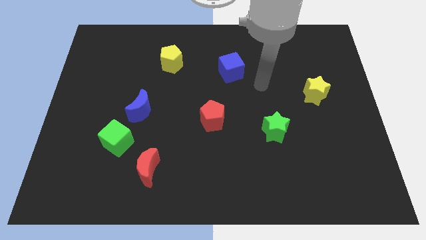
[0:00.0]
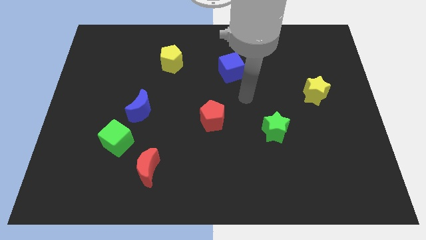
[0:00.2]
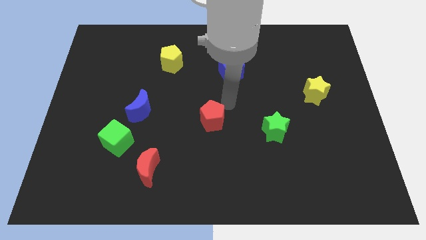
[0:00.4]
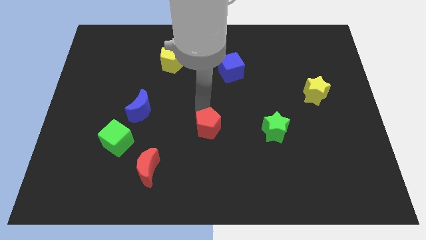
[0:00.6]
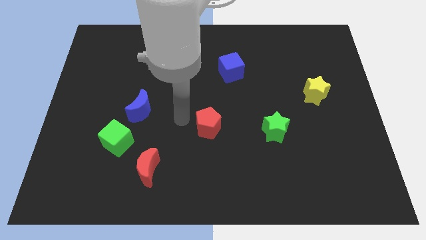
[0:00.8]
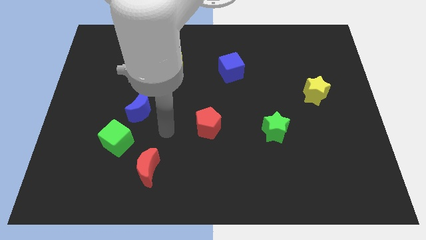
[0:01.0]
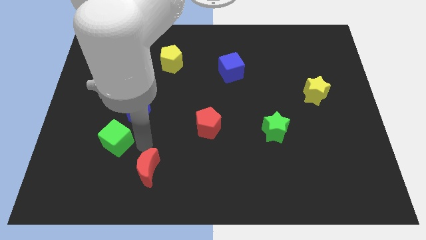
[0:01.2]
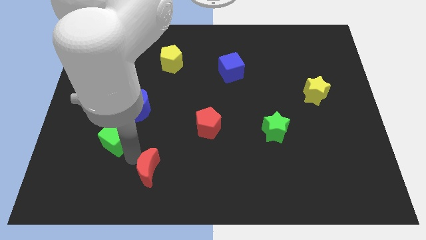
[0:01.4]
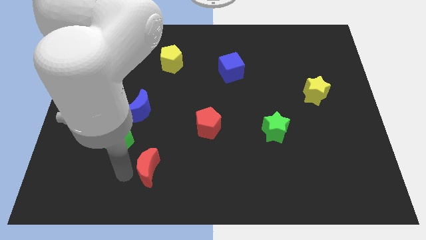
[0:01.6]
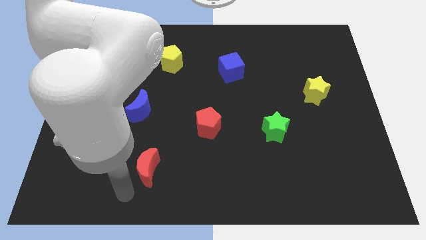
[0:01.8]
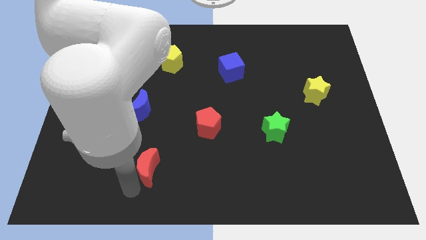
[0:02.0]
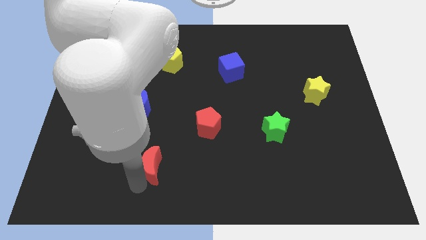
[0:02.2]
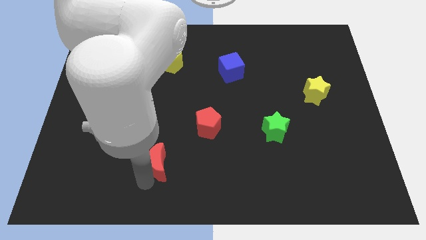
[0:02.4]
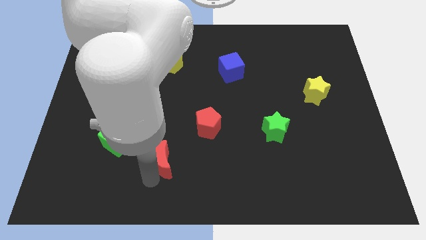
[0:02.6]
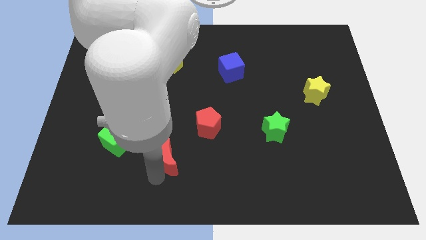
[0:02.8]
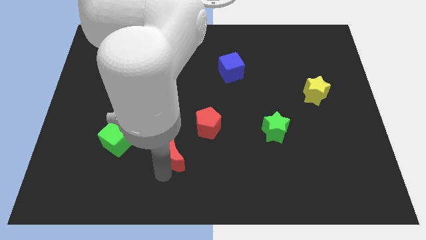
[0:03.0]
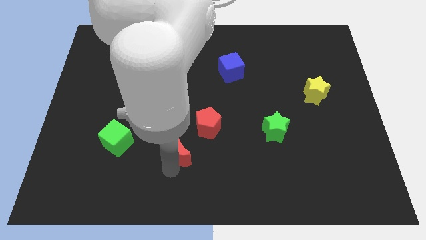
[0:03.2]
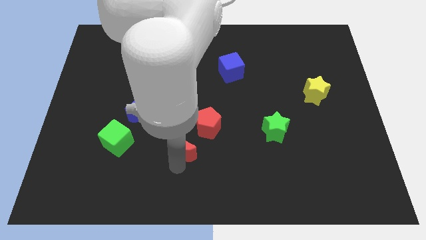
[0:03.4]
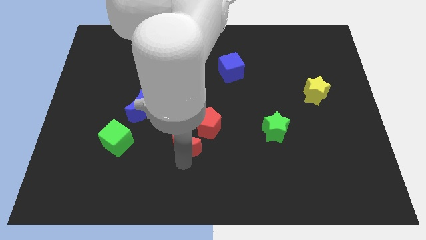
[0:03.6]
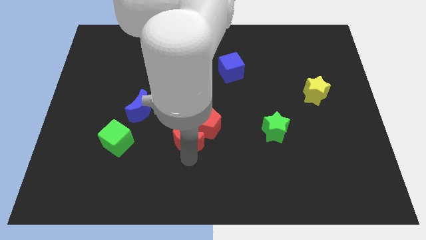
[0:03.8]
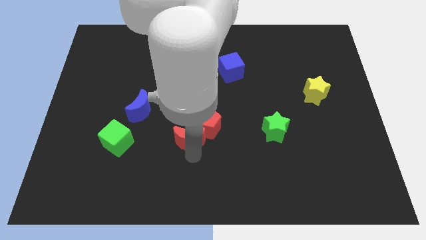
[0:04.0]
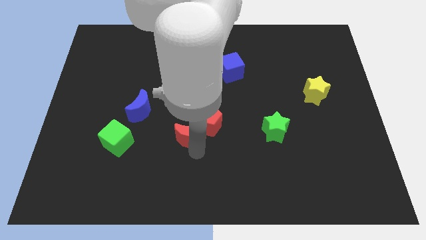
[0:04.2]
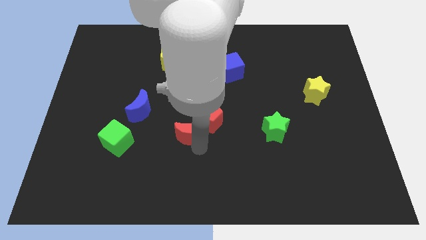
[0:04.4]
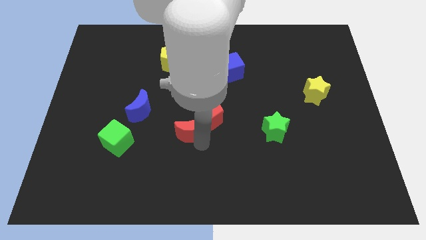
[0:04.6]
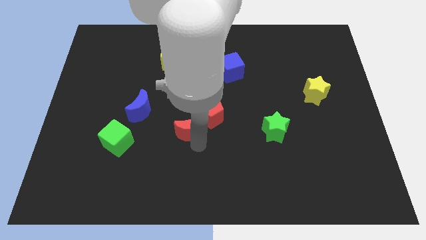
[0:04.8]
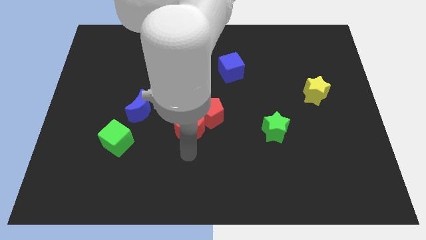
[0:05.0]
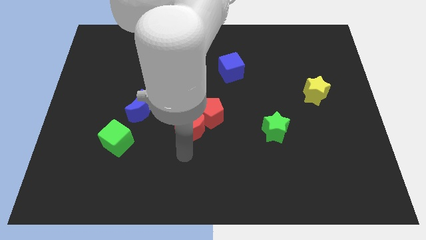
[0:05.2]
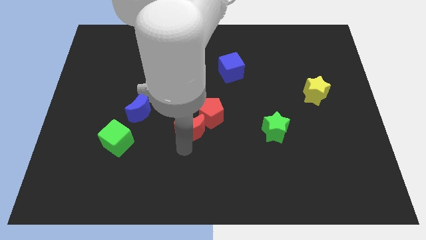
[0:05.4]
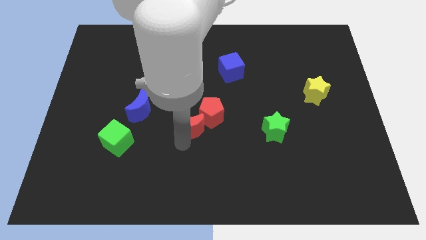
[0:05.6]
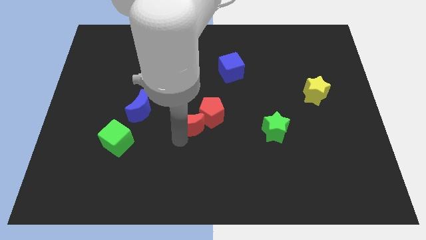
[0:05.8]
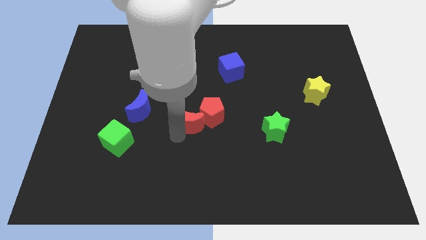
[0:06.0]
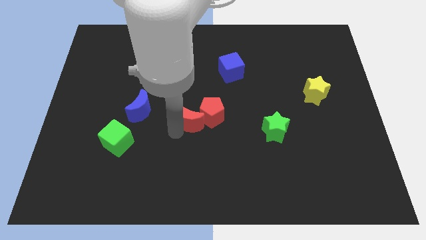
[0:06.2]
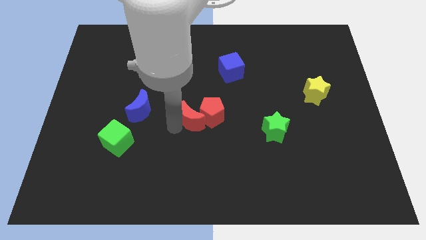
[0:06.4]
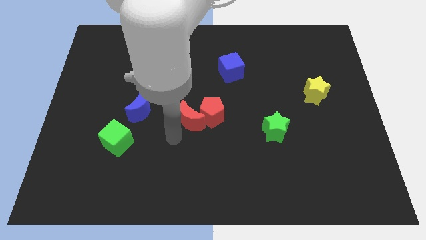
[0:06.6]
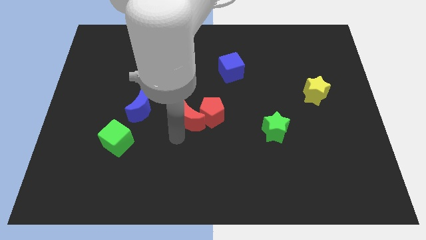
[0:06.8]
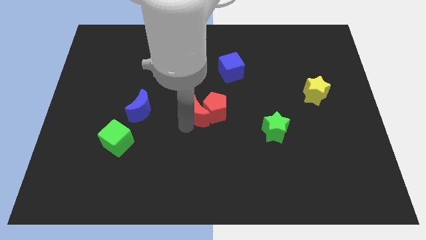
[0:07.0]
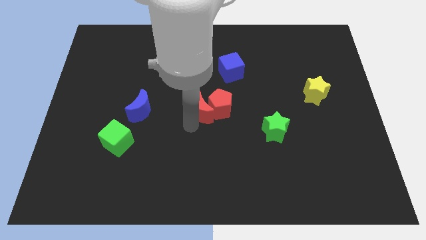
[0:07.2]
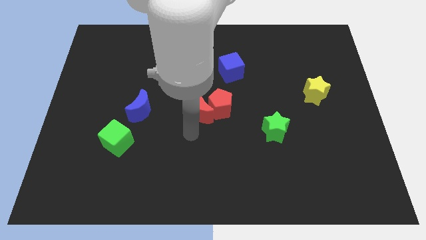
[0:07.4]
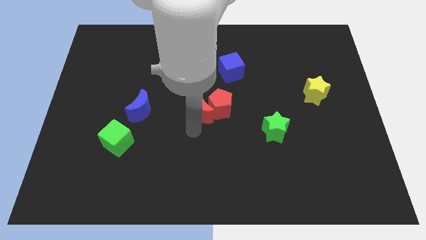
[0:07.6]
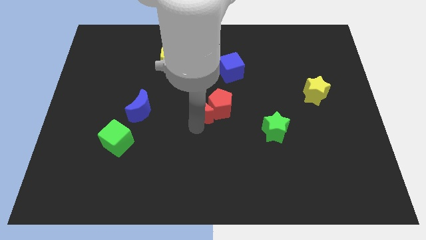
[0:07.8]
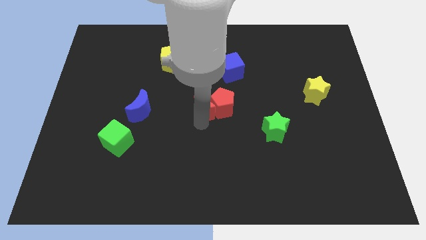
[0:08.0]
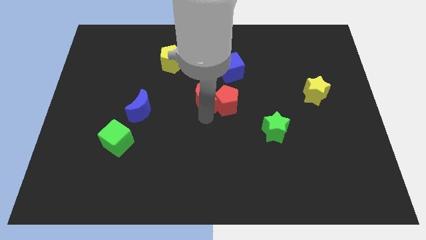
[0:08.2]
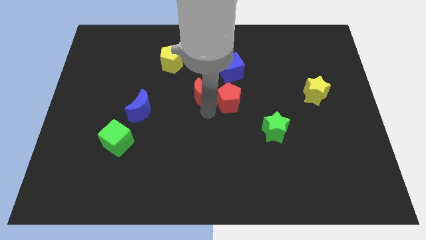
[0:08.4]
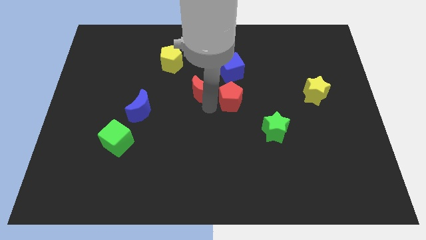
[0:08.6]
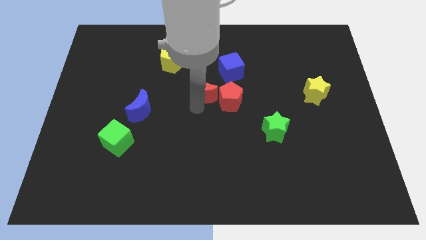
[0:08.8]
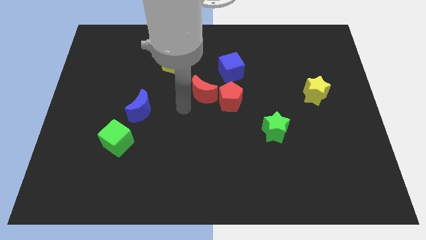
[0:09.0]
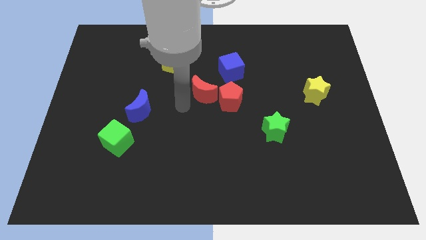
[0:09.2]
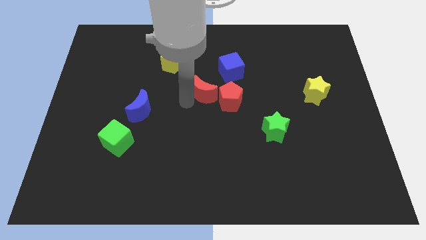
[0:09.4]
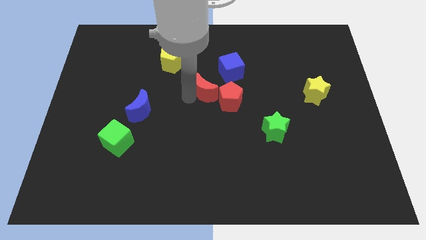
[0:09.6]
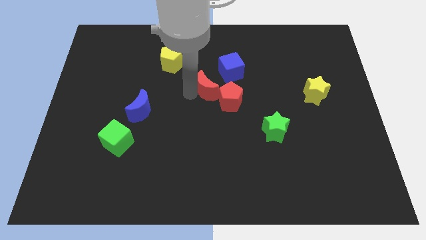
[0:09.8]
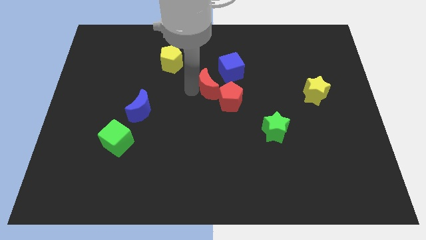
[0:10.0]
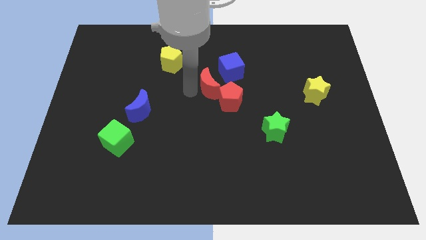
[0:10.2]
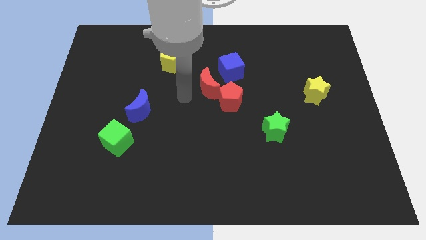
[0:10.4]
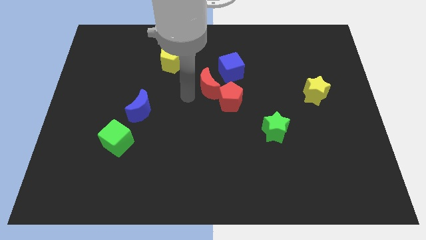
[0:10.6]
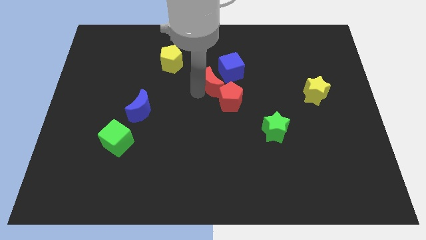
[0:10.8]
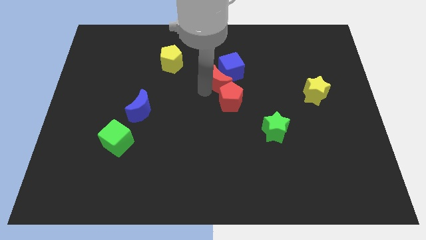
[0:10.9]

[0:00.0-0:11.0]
move the red moon towards the blue cube

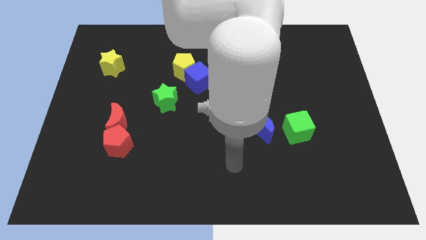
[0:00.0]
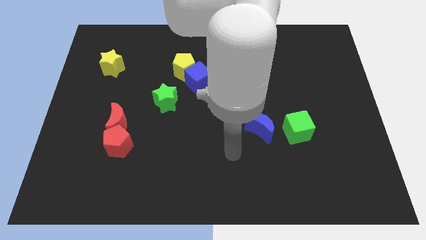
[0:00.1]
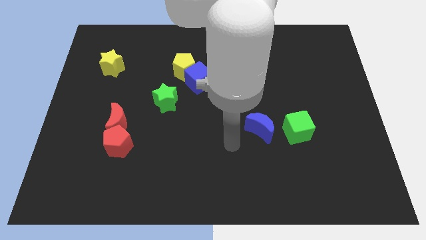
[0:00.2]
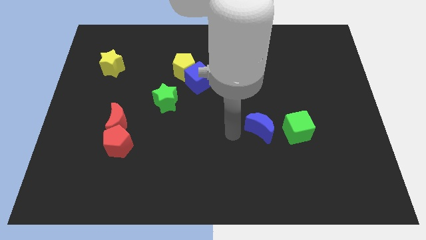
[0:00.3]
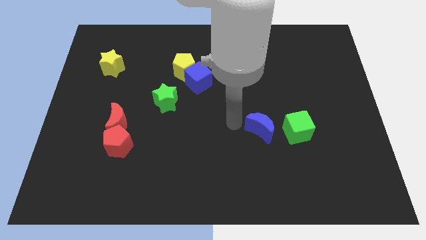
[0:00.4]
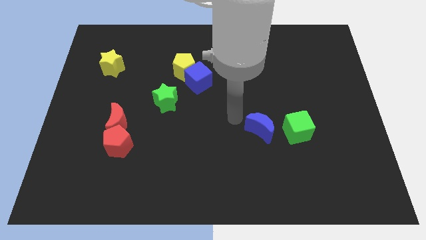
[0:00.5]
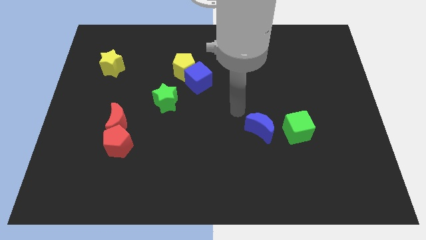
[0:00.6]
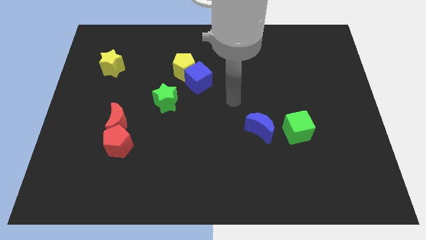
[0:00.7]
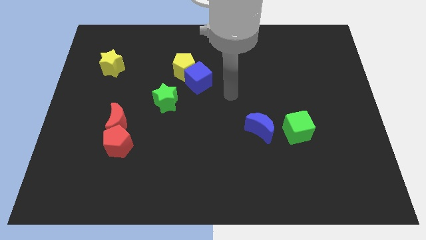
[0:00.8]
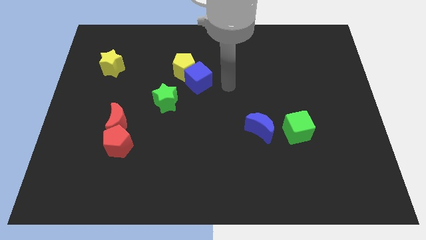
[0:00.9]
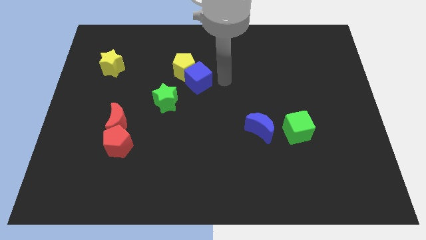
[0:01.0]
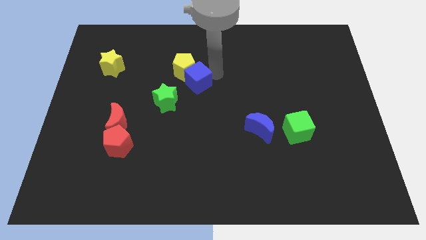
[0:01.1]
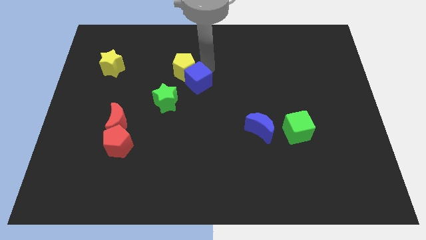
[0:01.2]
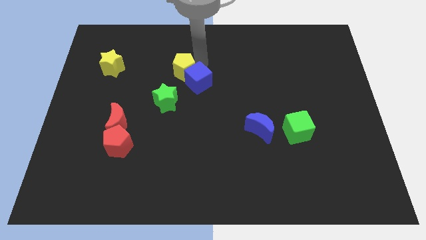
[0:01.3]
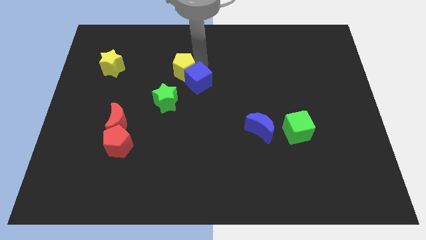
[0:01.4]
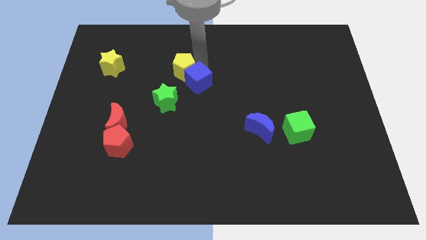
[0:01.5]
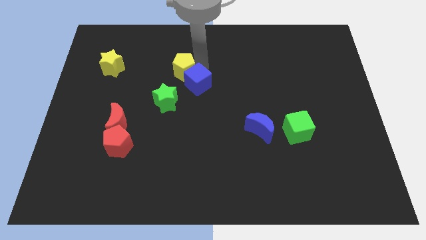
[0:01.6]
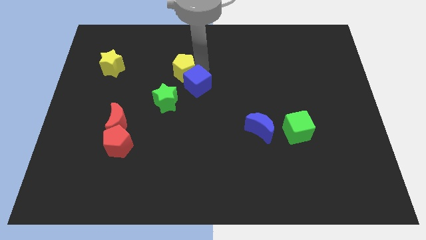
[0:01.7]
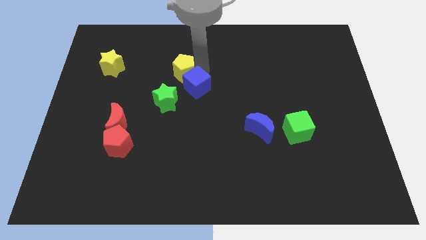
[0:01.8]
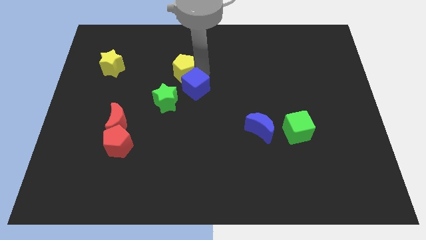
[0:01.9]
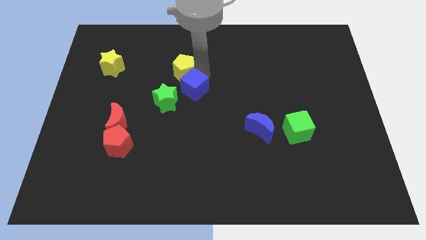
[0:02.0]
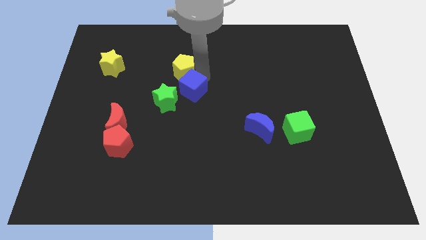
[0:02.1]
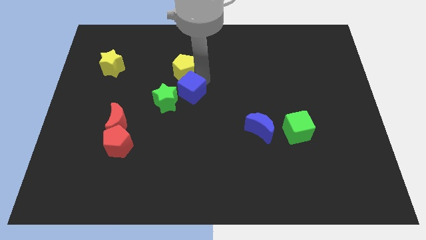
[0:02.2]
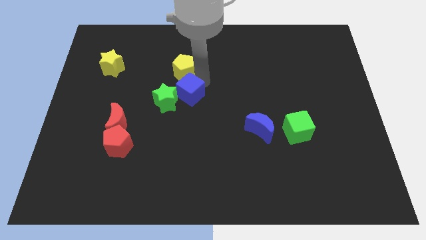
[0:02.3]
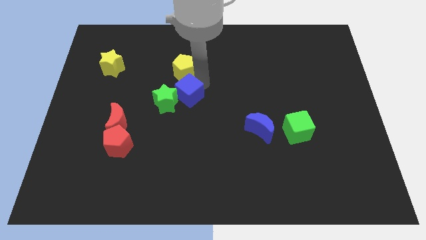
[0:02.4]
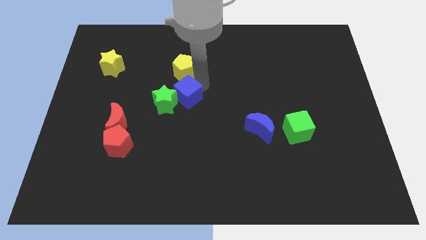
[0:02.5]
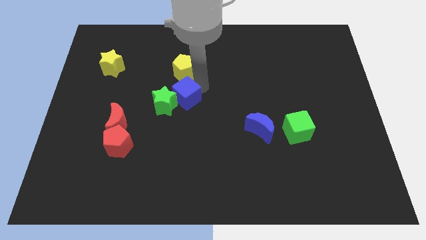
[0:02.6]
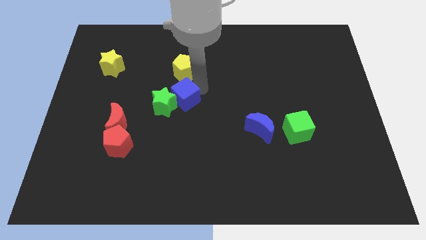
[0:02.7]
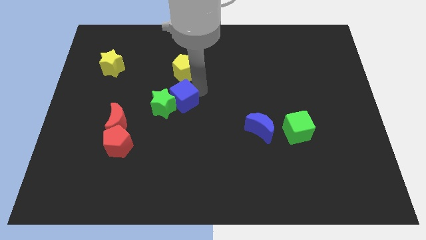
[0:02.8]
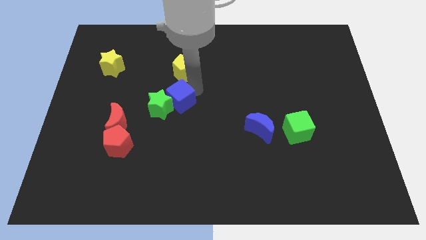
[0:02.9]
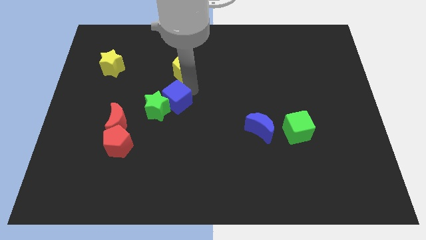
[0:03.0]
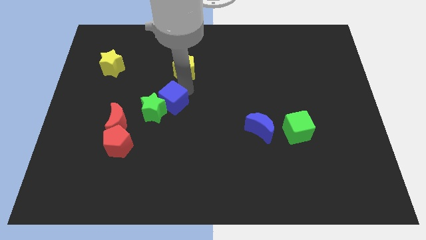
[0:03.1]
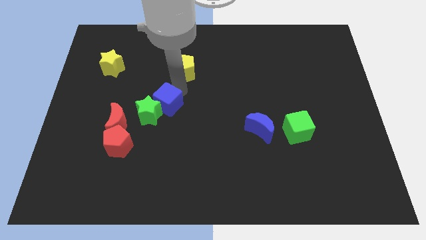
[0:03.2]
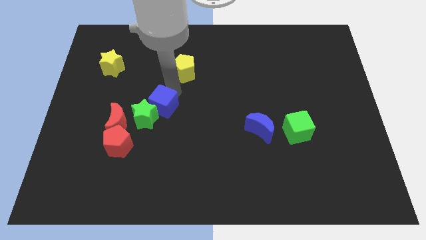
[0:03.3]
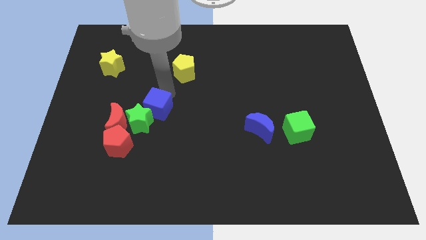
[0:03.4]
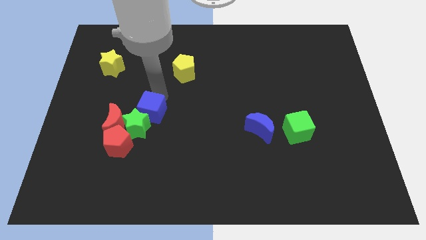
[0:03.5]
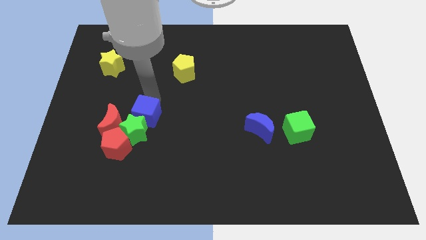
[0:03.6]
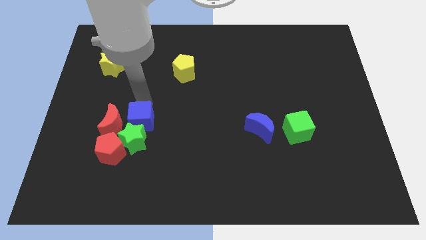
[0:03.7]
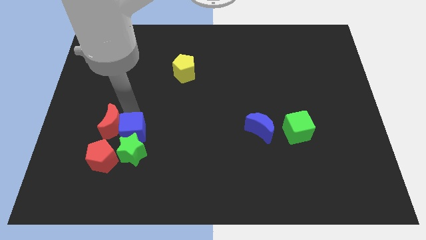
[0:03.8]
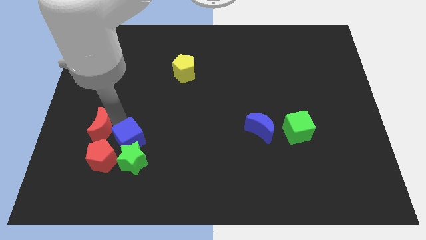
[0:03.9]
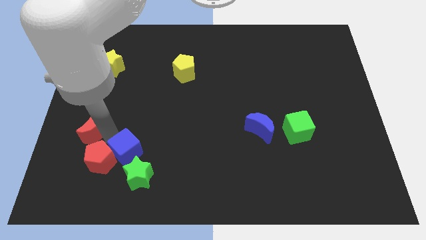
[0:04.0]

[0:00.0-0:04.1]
slide the blue cube to the red pentagon
